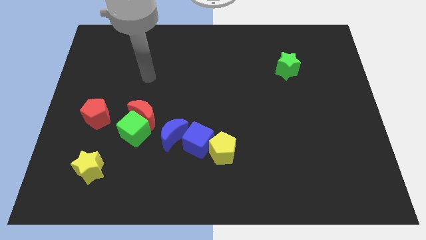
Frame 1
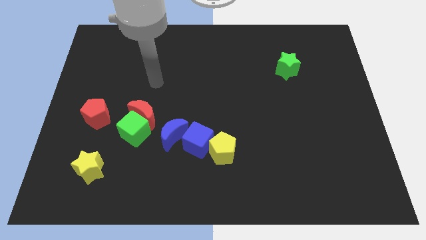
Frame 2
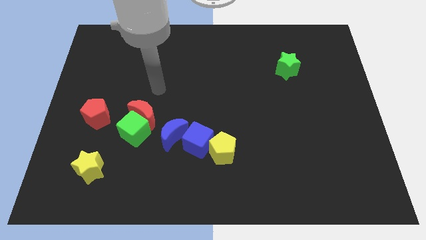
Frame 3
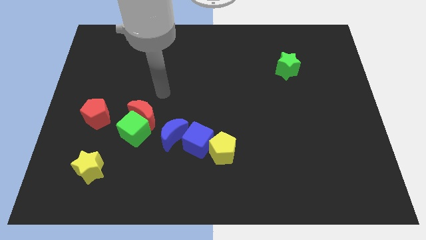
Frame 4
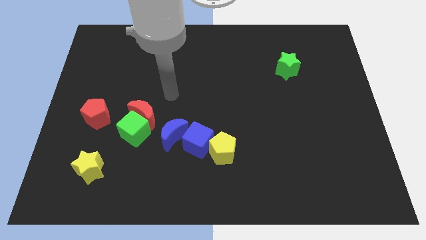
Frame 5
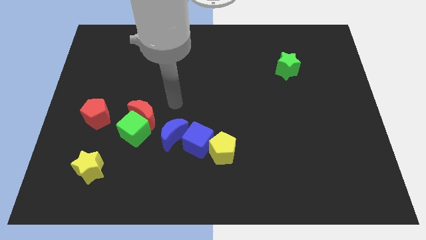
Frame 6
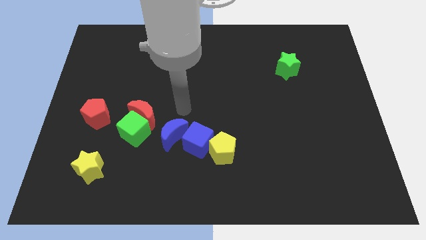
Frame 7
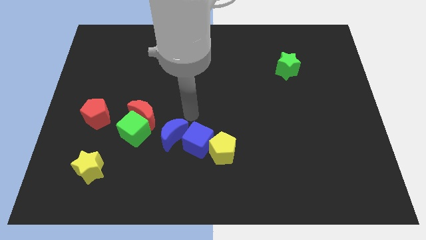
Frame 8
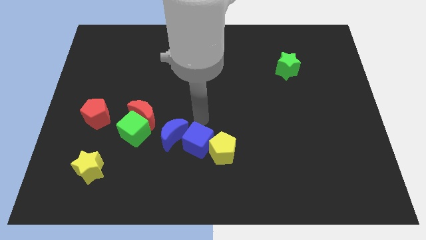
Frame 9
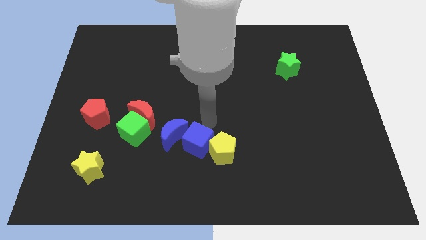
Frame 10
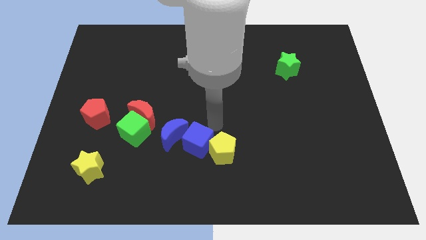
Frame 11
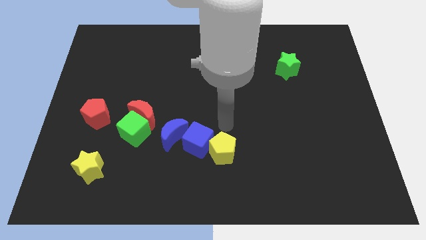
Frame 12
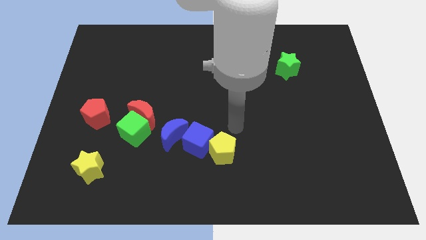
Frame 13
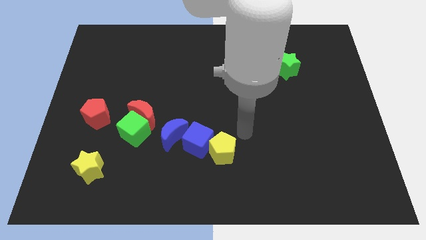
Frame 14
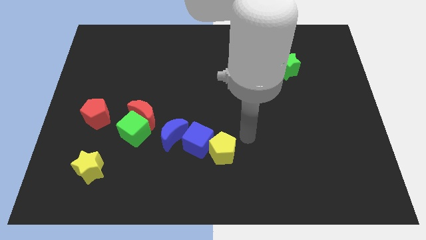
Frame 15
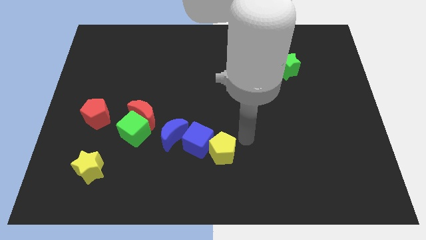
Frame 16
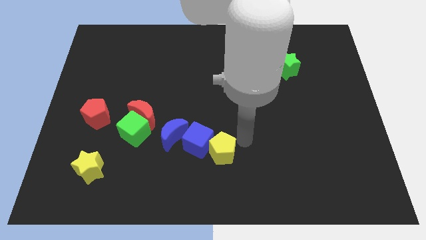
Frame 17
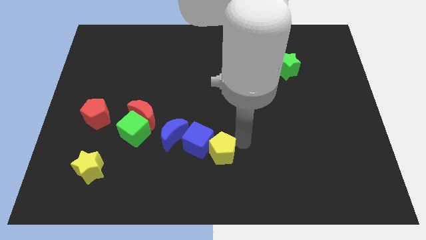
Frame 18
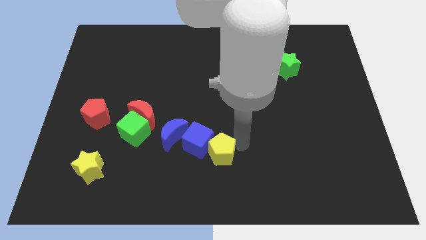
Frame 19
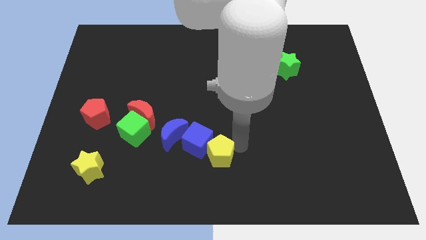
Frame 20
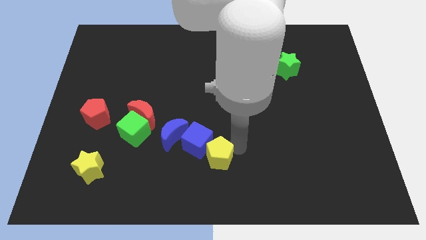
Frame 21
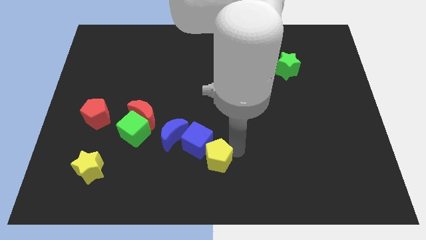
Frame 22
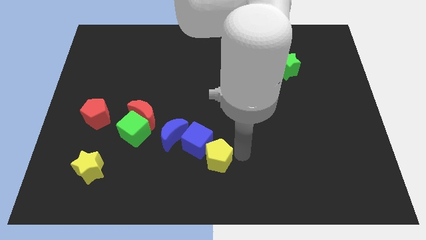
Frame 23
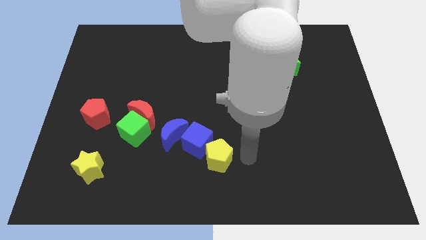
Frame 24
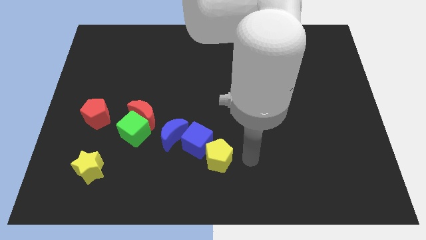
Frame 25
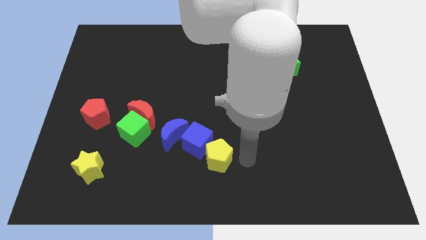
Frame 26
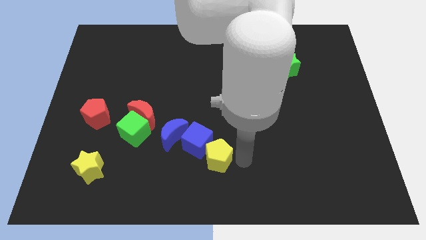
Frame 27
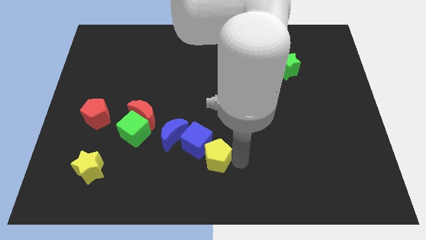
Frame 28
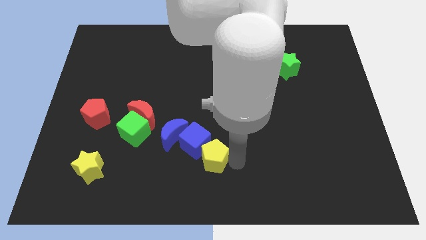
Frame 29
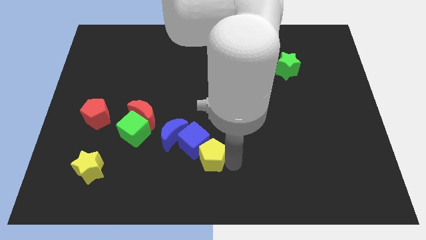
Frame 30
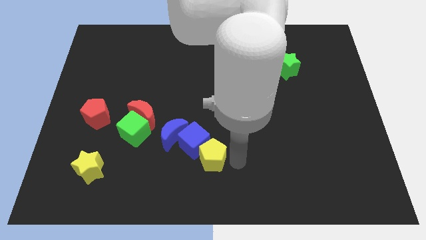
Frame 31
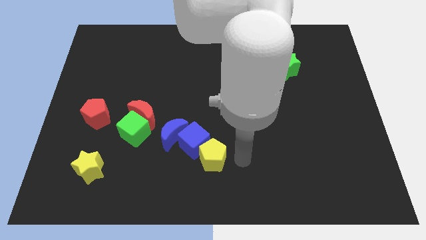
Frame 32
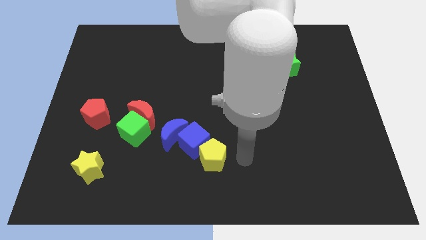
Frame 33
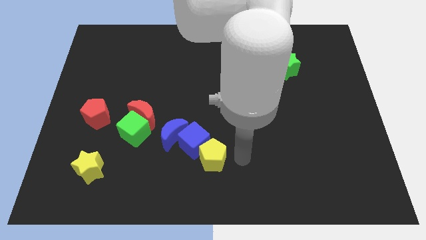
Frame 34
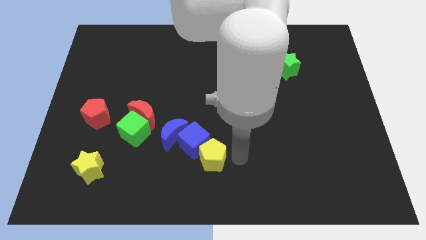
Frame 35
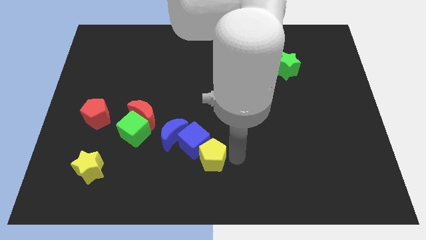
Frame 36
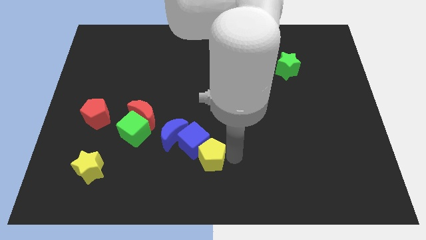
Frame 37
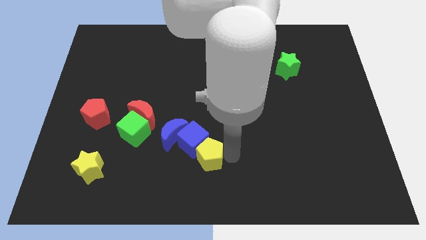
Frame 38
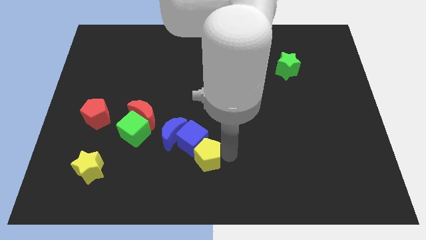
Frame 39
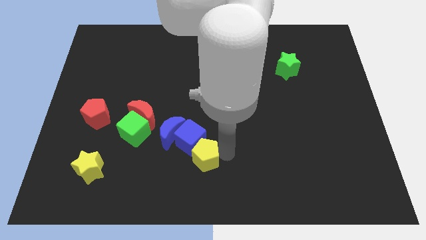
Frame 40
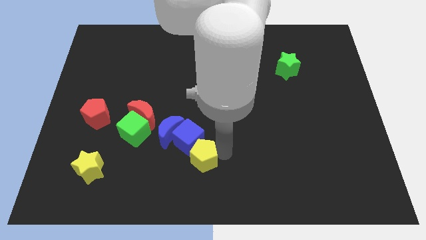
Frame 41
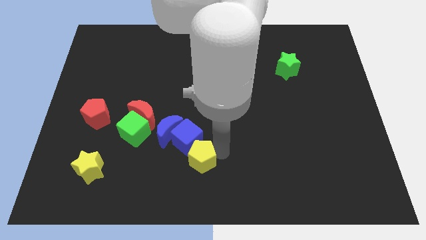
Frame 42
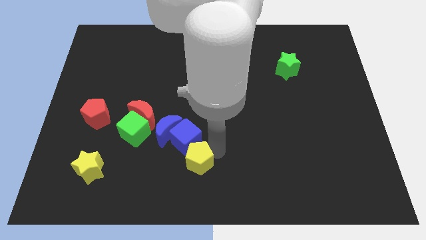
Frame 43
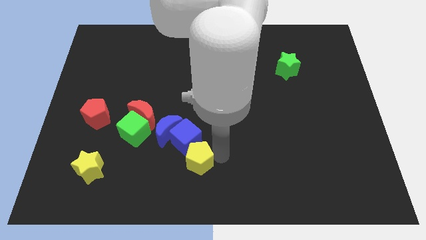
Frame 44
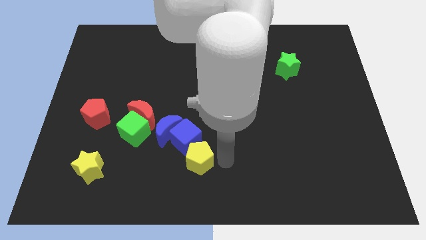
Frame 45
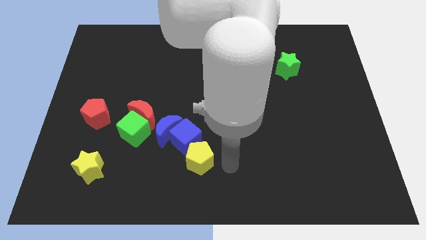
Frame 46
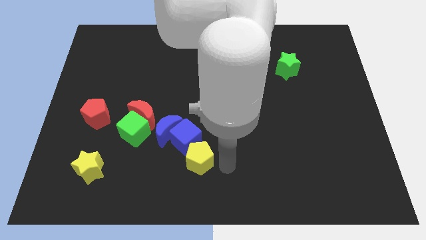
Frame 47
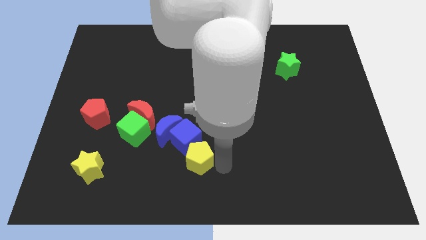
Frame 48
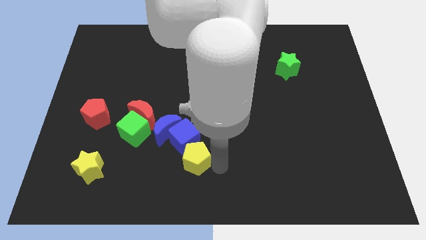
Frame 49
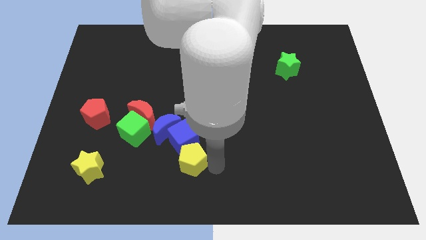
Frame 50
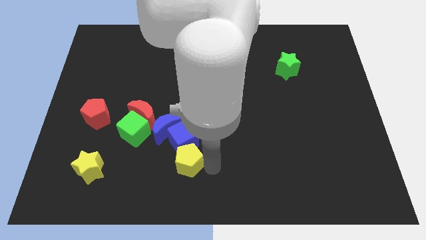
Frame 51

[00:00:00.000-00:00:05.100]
slightly push the yellow pentagon left

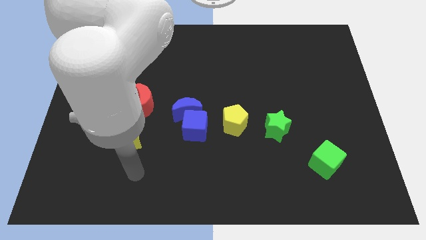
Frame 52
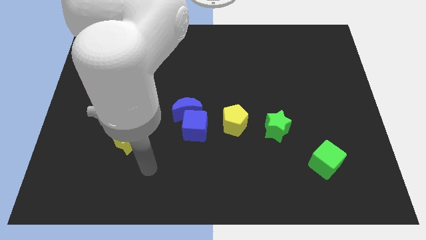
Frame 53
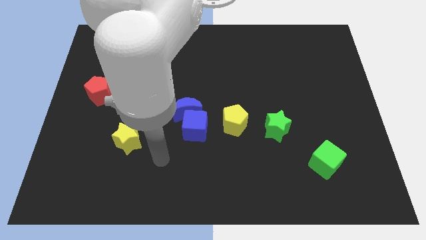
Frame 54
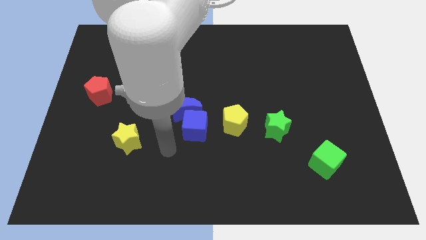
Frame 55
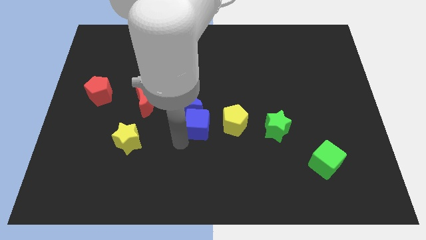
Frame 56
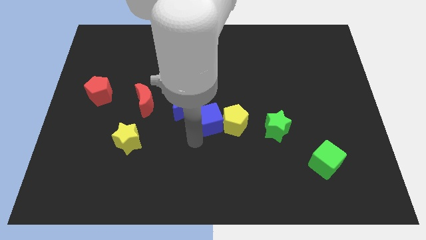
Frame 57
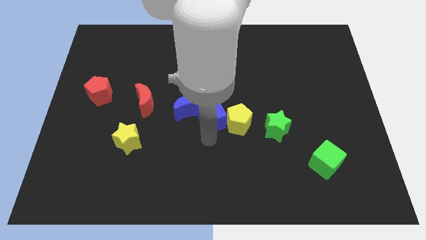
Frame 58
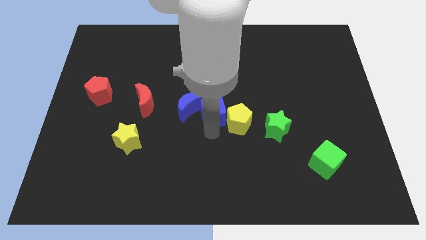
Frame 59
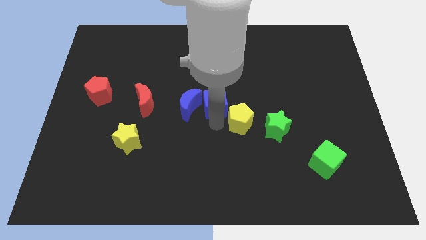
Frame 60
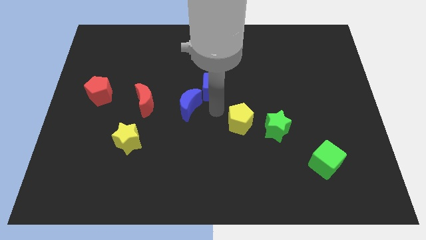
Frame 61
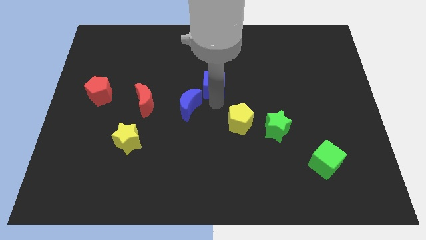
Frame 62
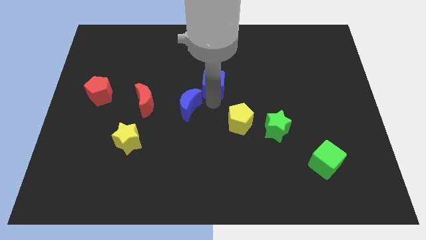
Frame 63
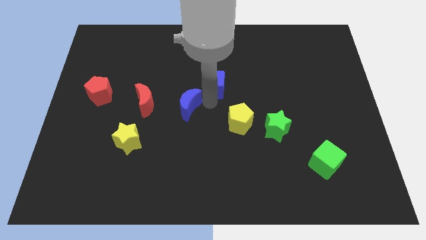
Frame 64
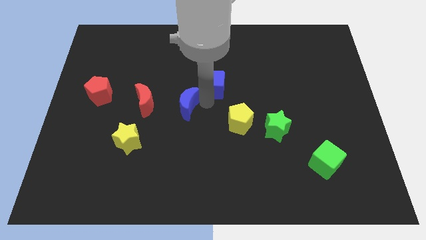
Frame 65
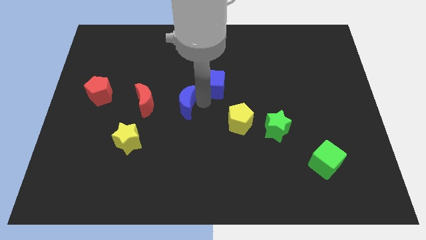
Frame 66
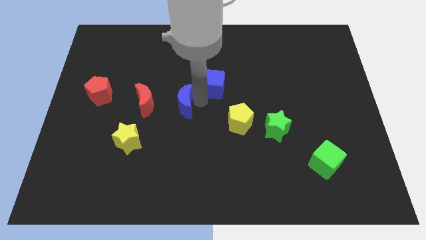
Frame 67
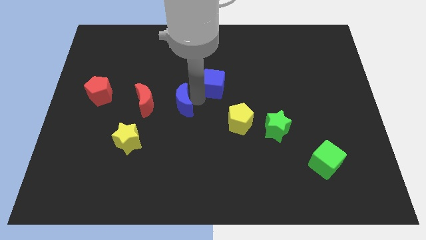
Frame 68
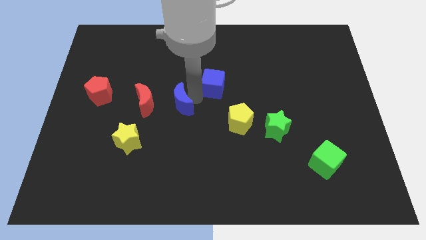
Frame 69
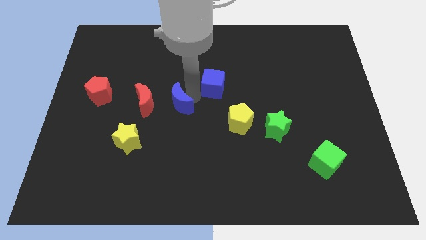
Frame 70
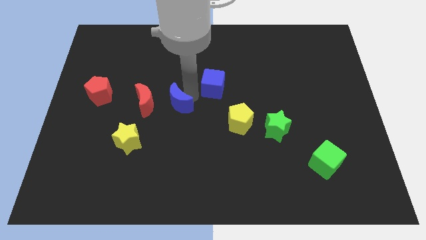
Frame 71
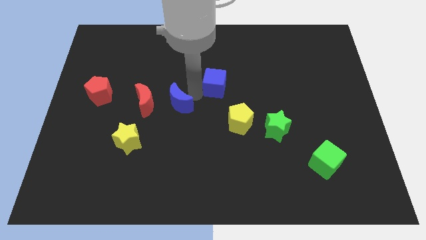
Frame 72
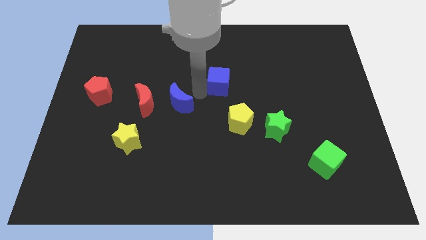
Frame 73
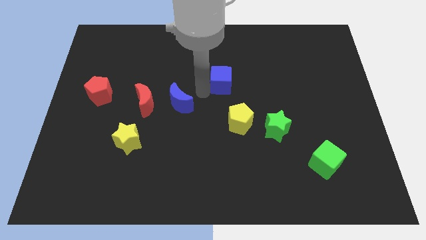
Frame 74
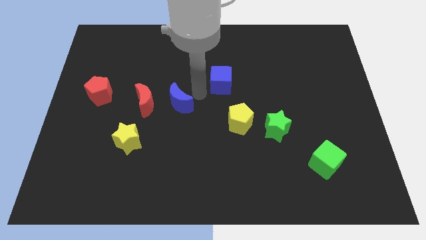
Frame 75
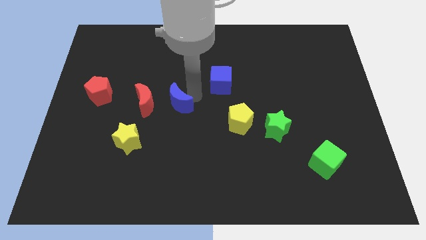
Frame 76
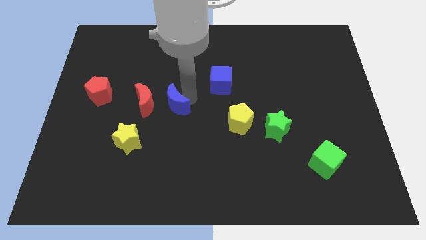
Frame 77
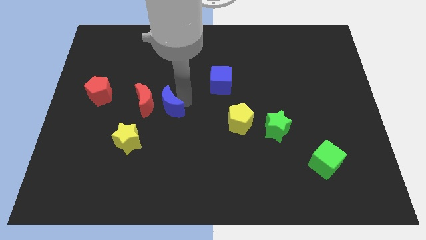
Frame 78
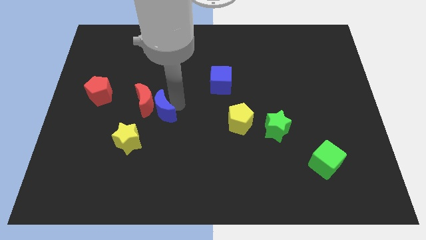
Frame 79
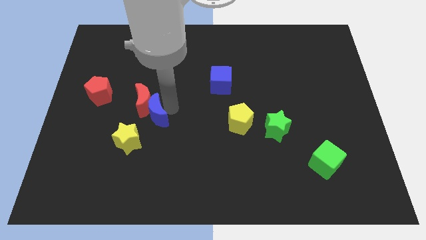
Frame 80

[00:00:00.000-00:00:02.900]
slide the blue moon somewhat left
